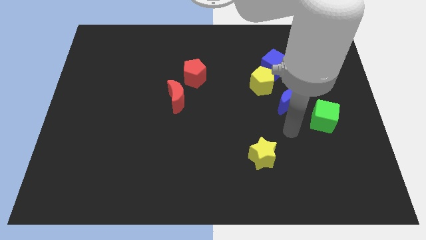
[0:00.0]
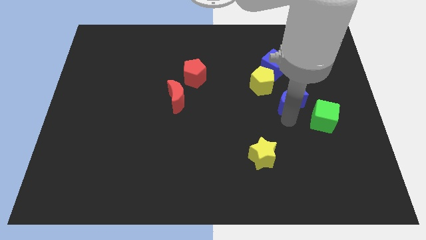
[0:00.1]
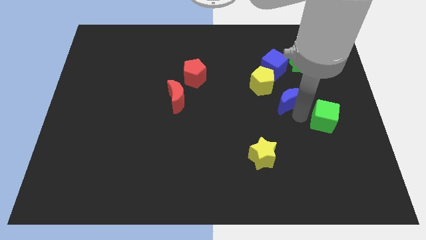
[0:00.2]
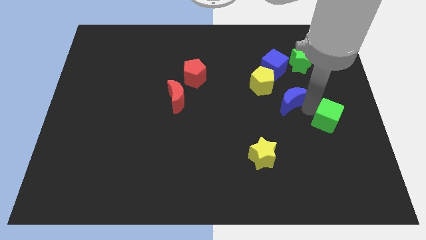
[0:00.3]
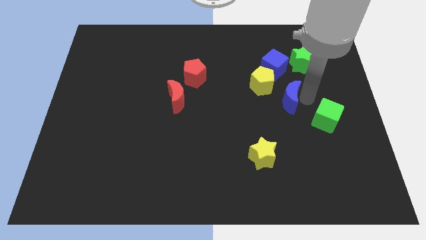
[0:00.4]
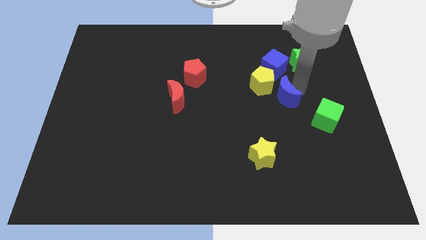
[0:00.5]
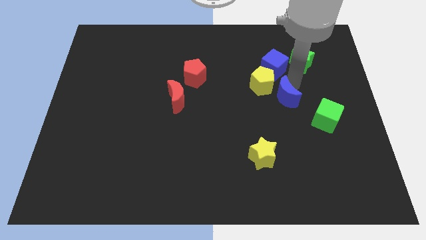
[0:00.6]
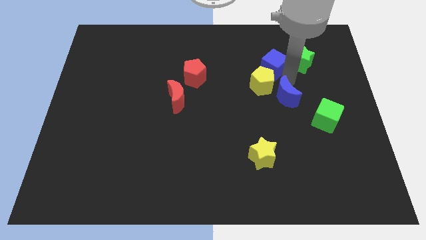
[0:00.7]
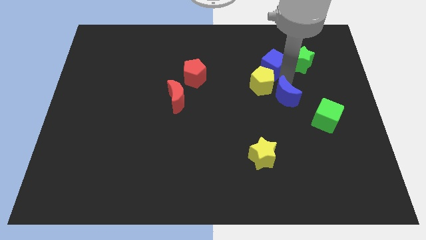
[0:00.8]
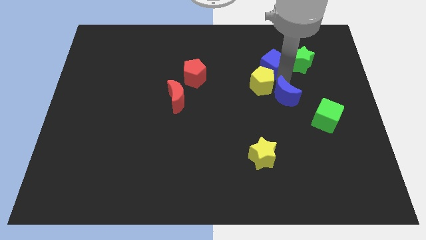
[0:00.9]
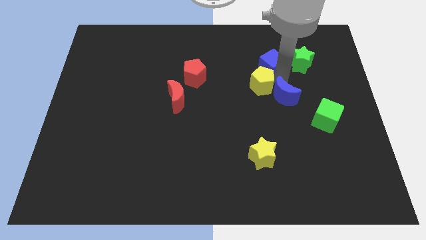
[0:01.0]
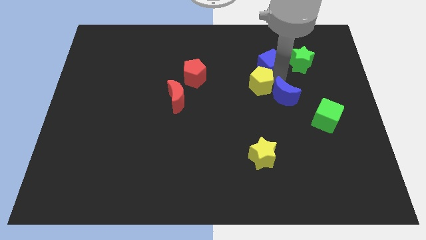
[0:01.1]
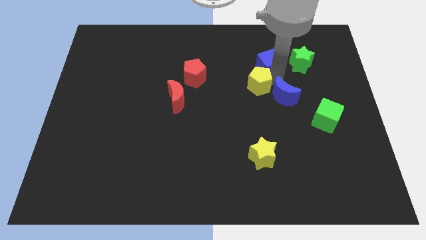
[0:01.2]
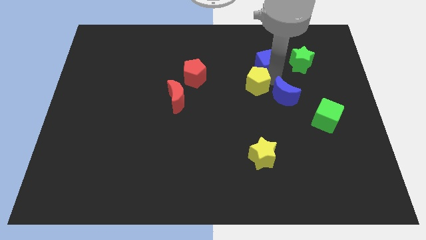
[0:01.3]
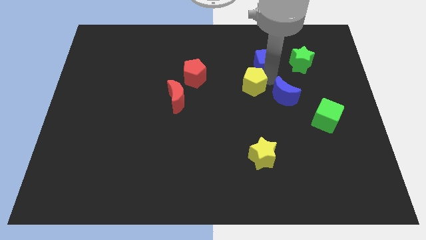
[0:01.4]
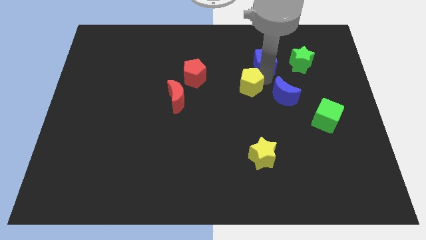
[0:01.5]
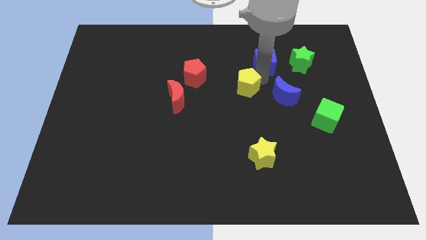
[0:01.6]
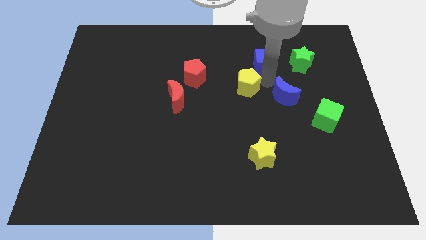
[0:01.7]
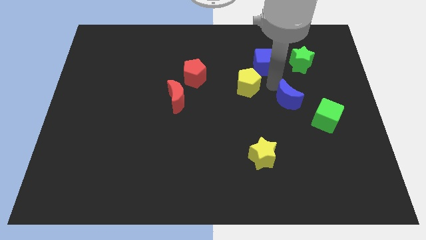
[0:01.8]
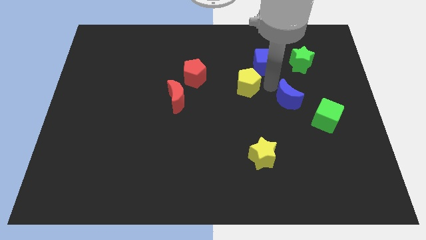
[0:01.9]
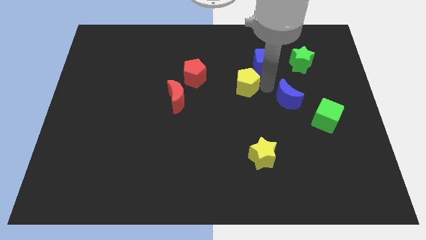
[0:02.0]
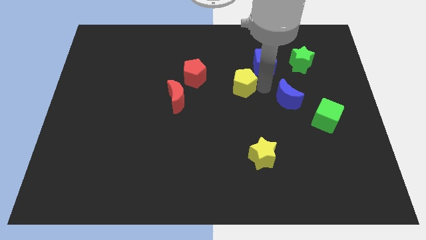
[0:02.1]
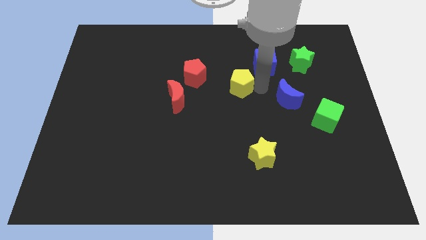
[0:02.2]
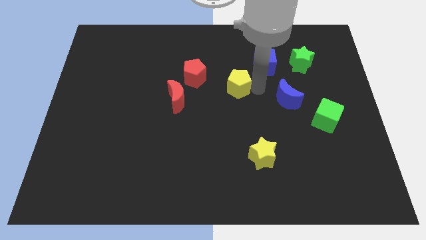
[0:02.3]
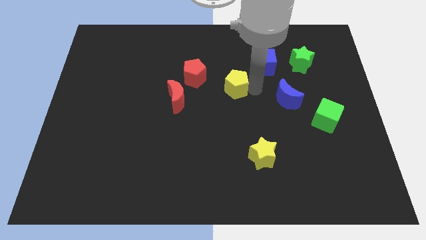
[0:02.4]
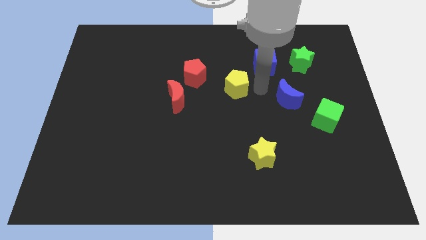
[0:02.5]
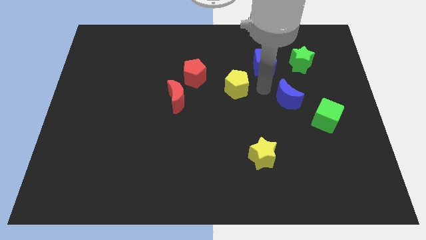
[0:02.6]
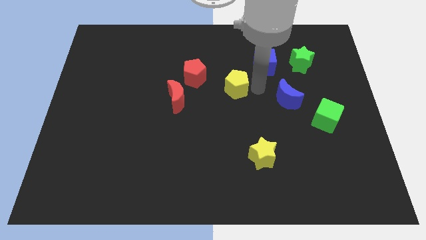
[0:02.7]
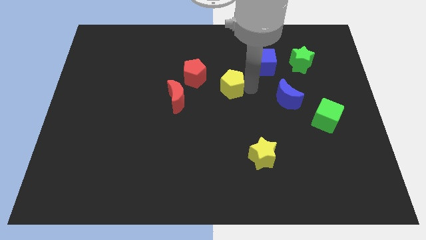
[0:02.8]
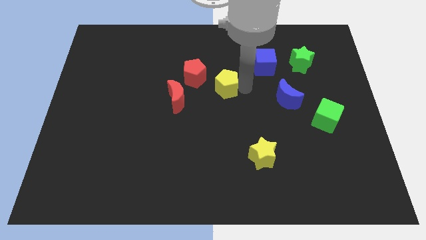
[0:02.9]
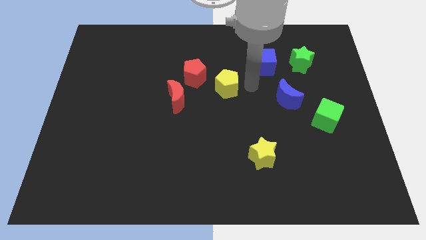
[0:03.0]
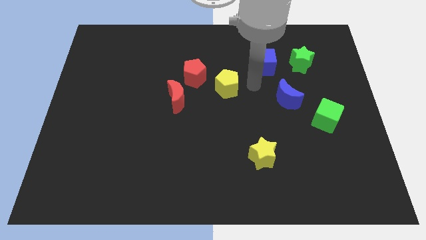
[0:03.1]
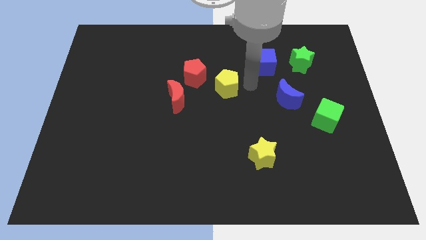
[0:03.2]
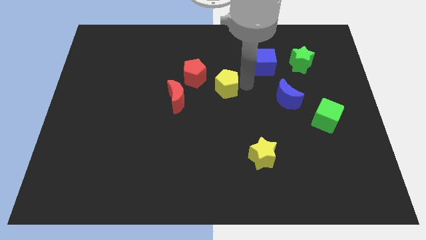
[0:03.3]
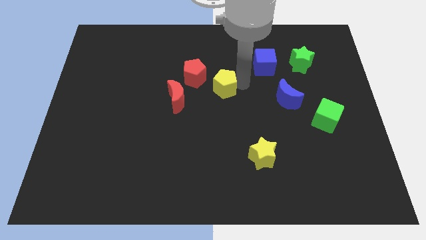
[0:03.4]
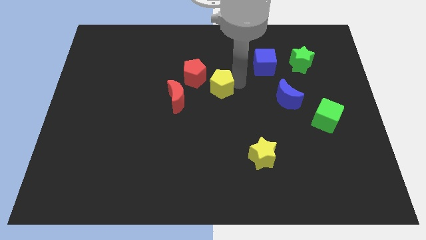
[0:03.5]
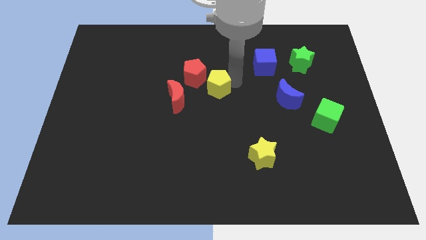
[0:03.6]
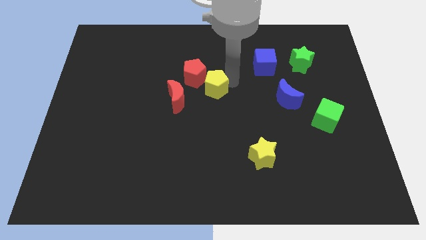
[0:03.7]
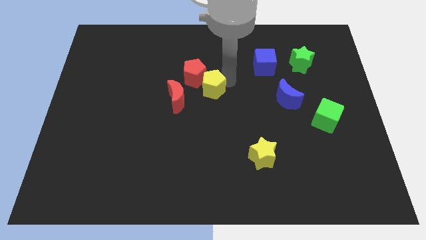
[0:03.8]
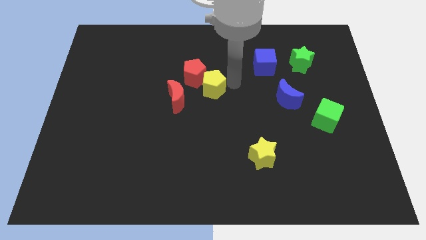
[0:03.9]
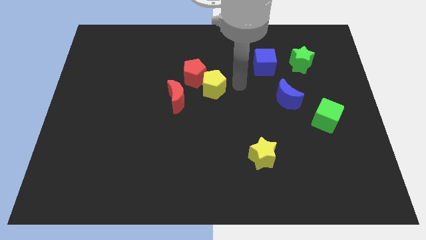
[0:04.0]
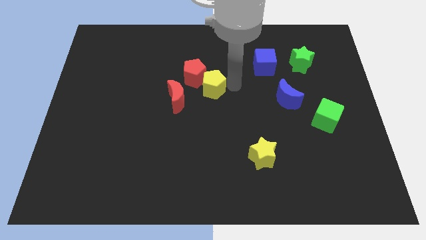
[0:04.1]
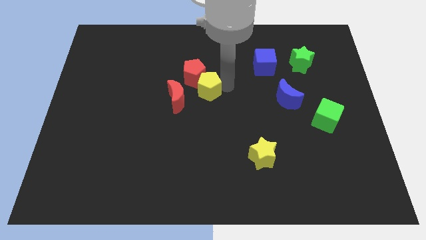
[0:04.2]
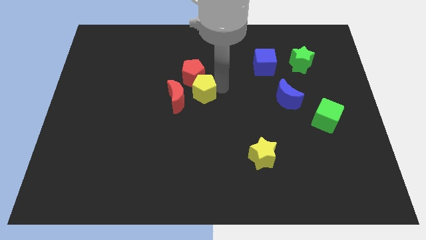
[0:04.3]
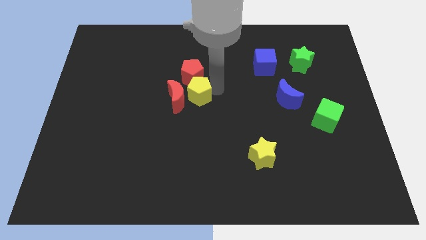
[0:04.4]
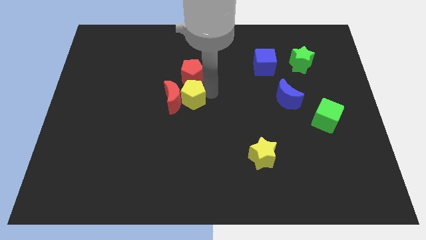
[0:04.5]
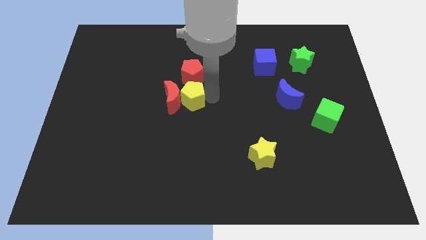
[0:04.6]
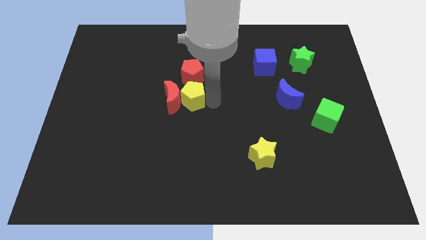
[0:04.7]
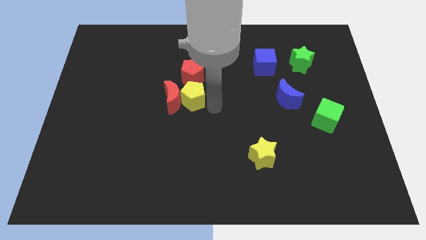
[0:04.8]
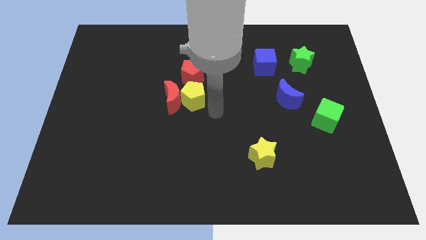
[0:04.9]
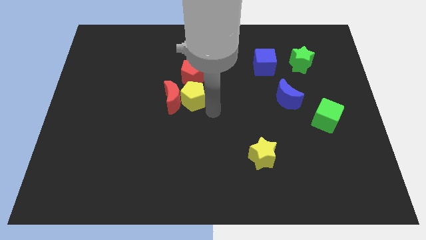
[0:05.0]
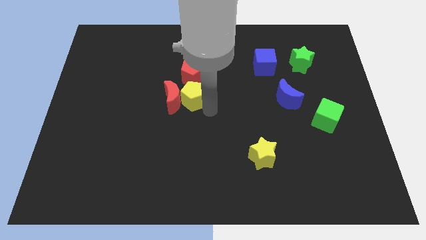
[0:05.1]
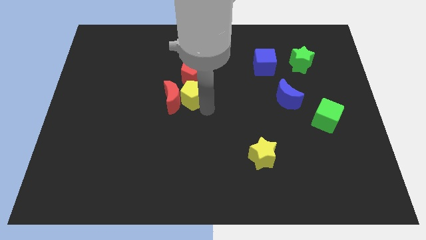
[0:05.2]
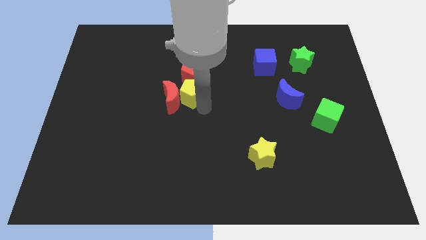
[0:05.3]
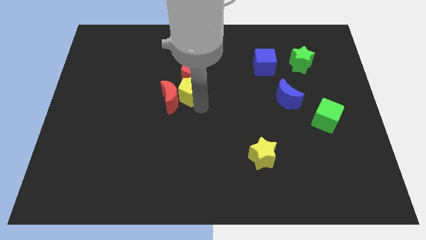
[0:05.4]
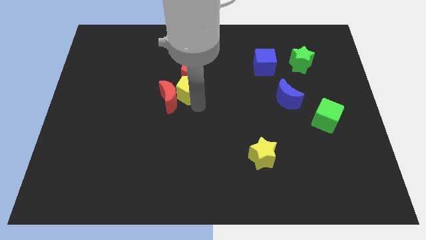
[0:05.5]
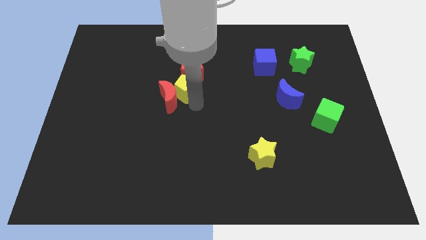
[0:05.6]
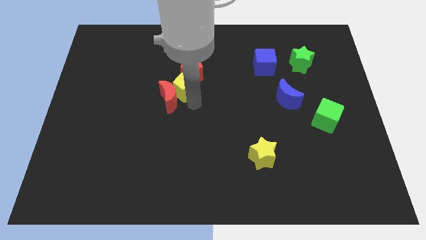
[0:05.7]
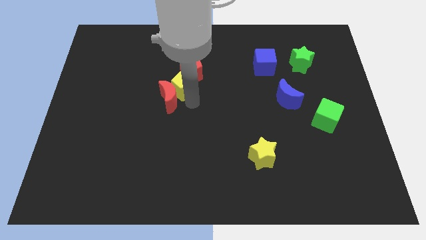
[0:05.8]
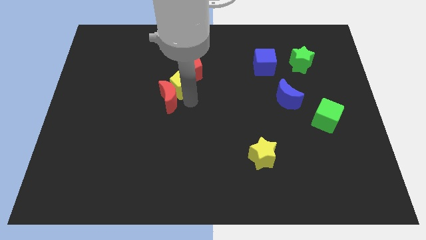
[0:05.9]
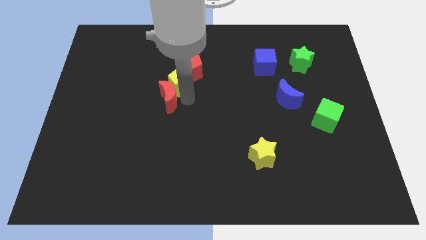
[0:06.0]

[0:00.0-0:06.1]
slide the yellow pentagon left

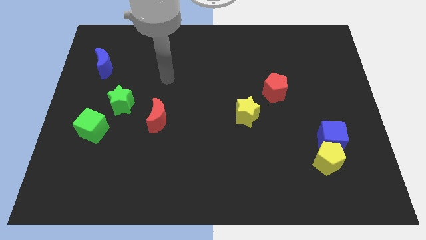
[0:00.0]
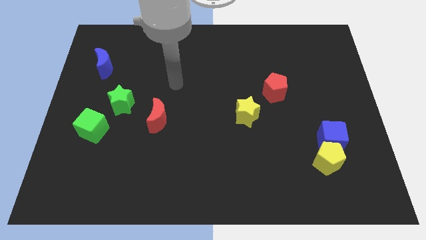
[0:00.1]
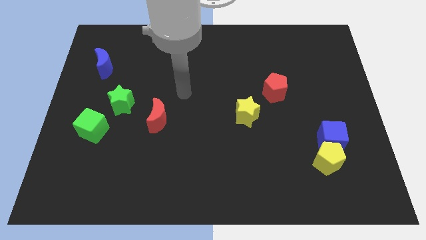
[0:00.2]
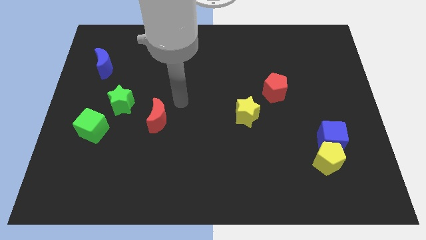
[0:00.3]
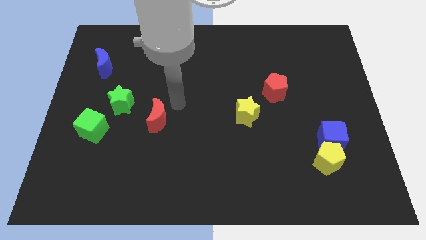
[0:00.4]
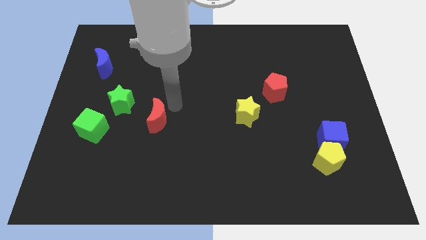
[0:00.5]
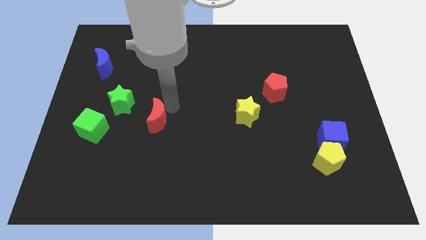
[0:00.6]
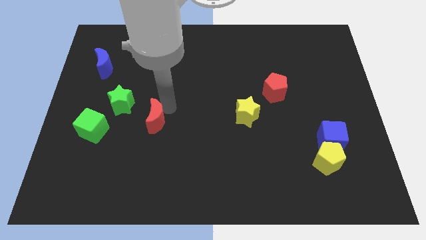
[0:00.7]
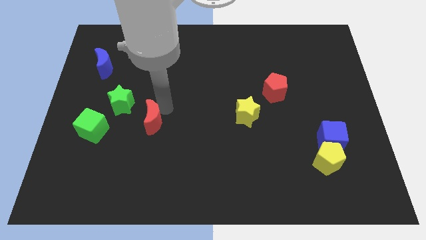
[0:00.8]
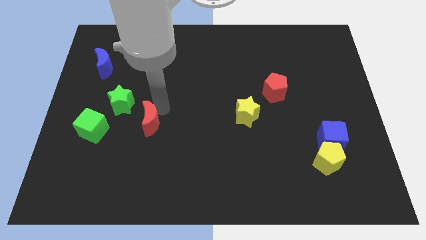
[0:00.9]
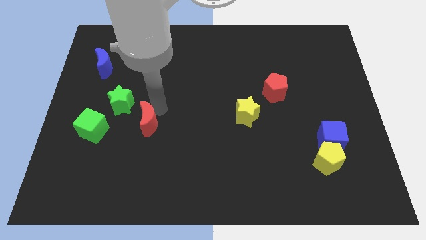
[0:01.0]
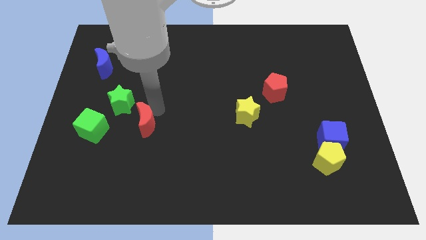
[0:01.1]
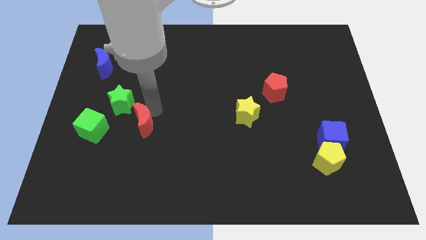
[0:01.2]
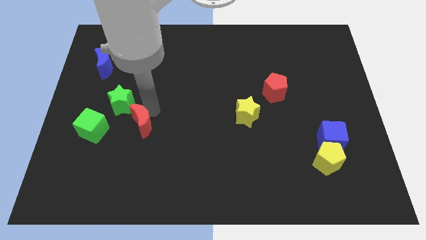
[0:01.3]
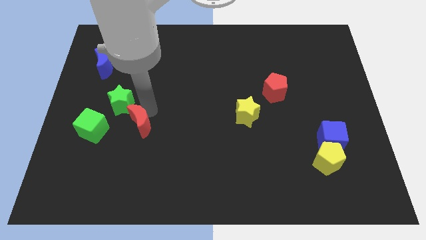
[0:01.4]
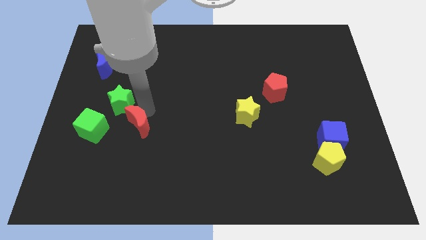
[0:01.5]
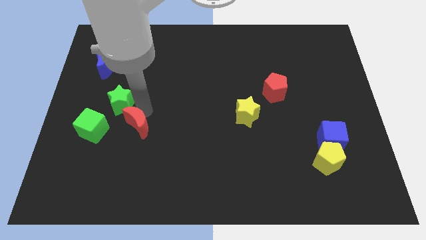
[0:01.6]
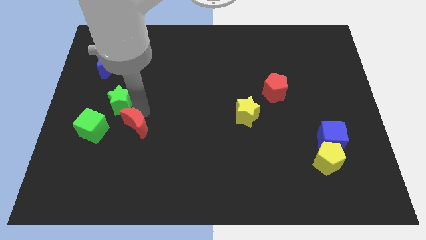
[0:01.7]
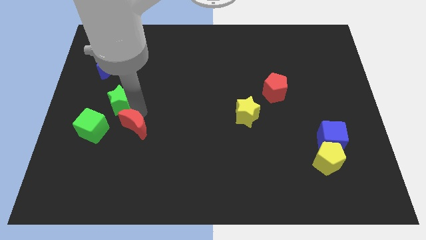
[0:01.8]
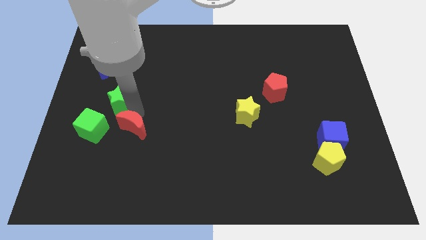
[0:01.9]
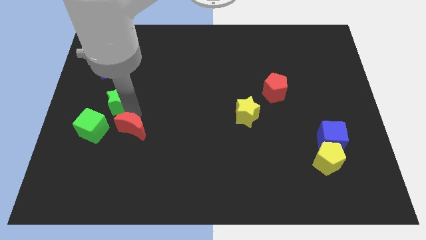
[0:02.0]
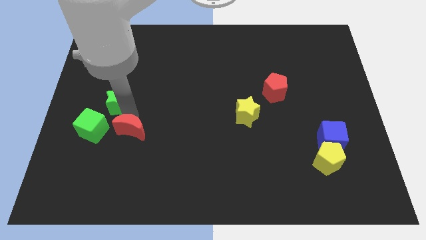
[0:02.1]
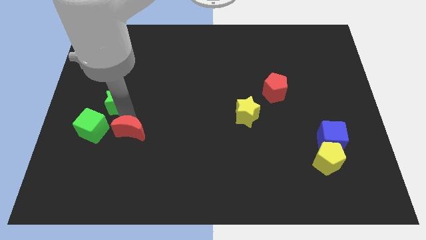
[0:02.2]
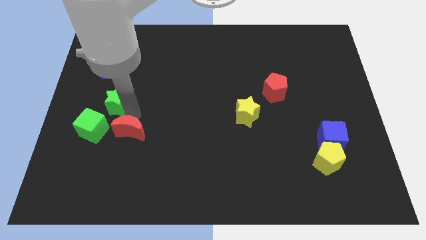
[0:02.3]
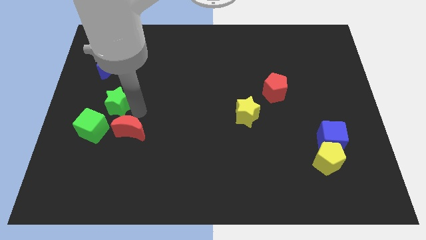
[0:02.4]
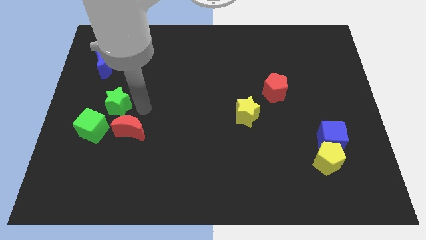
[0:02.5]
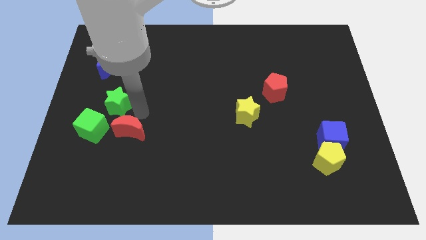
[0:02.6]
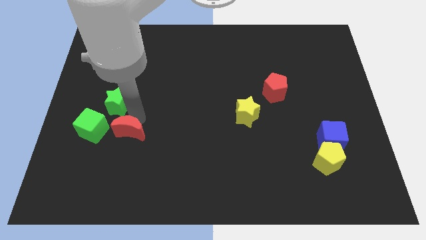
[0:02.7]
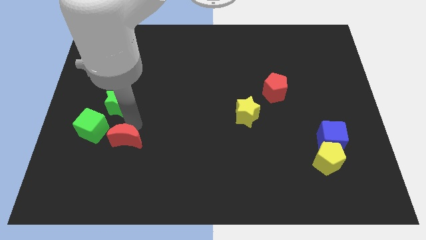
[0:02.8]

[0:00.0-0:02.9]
slightly slide the red moon diagonally down and to the left
